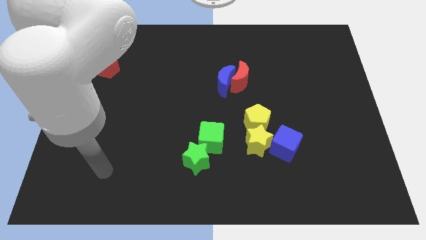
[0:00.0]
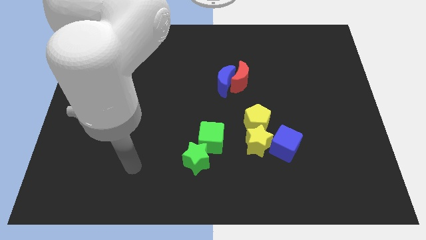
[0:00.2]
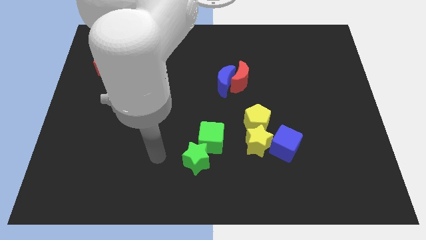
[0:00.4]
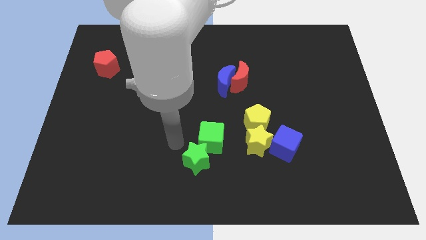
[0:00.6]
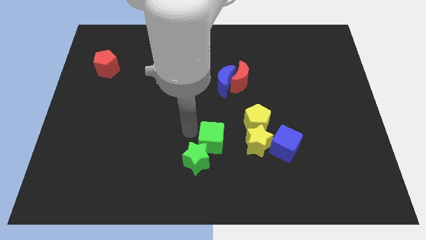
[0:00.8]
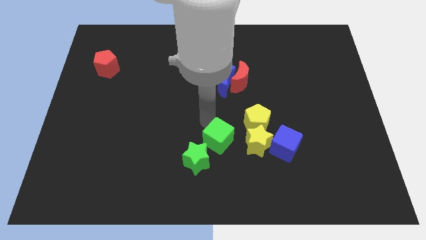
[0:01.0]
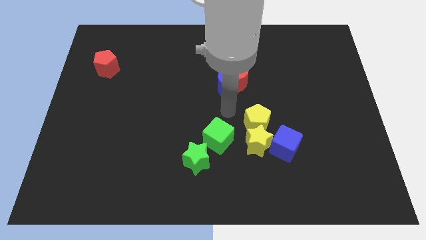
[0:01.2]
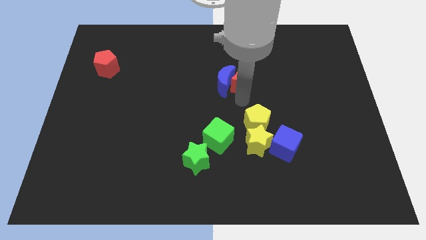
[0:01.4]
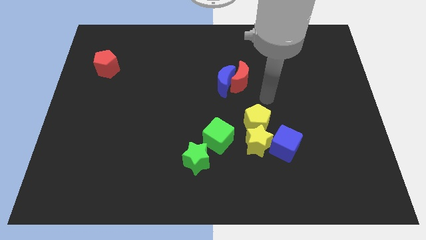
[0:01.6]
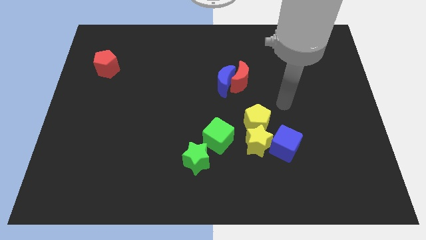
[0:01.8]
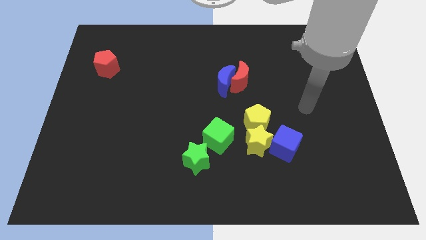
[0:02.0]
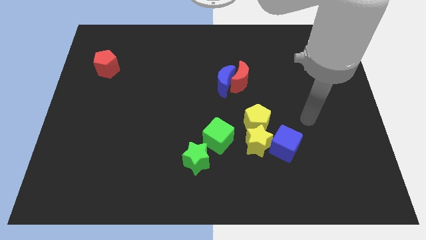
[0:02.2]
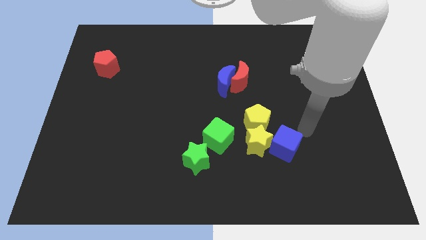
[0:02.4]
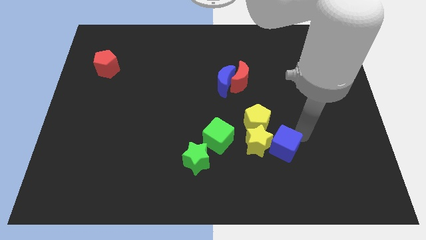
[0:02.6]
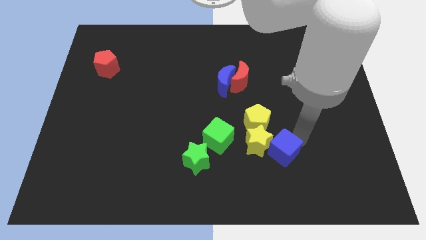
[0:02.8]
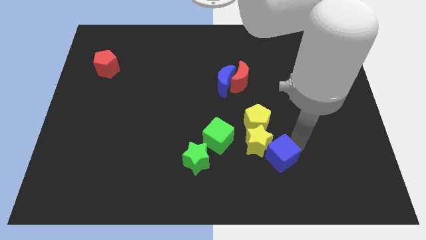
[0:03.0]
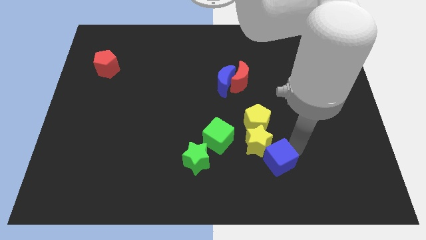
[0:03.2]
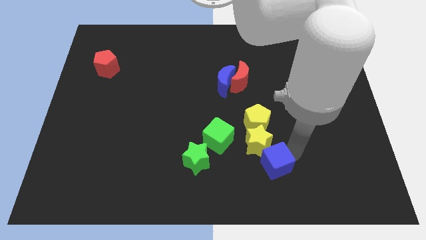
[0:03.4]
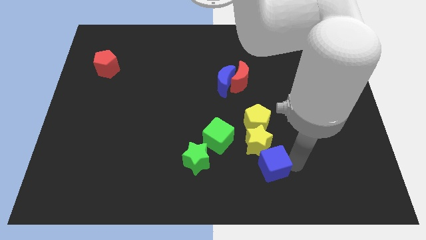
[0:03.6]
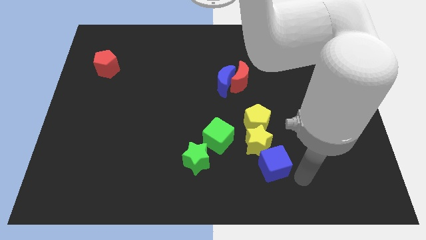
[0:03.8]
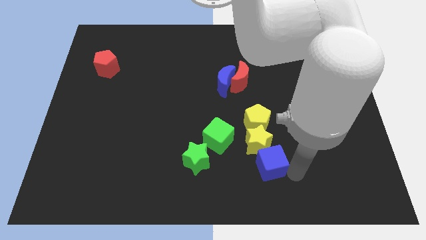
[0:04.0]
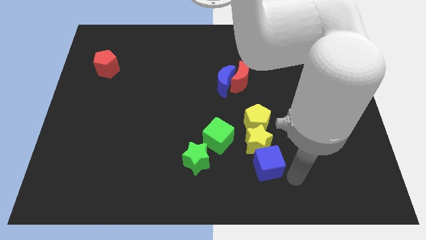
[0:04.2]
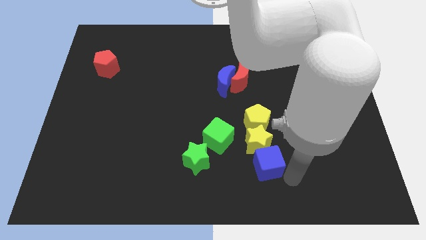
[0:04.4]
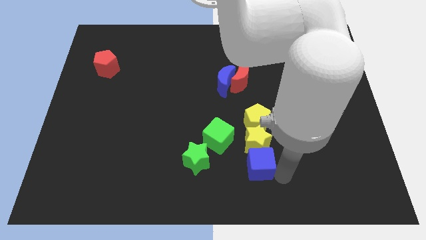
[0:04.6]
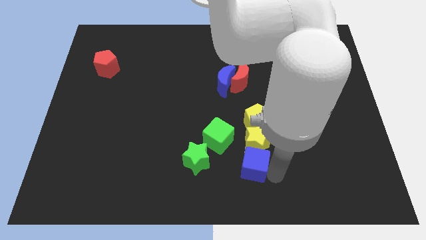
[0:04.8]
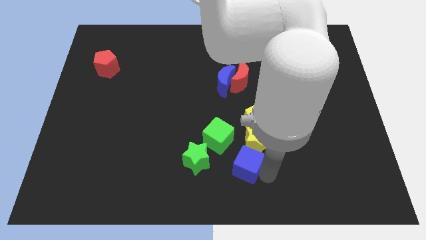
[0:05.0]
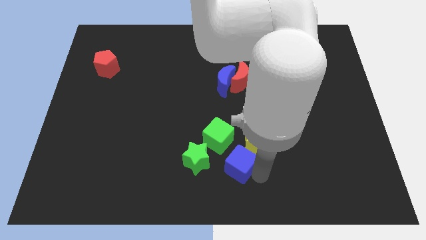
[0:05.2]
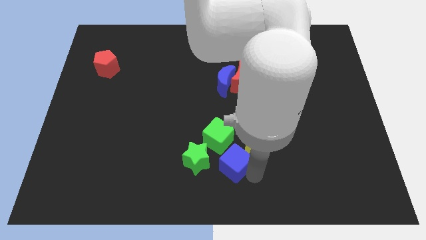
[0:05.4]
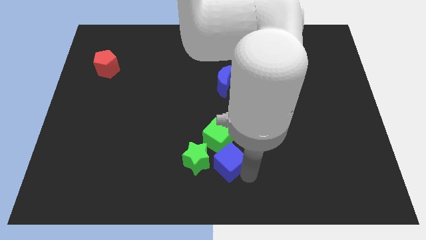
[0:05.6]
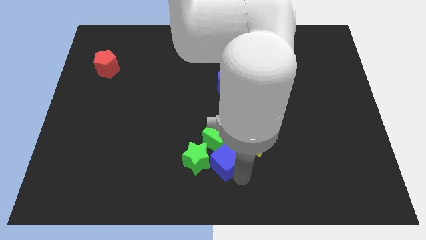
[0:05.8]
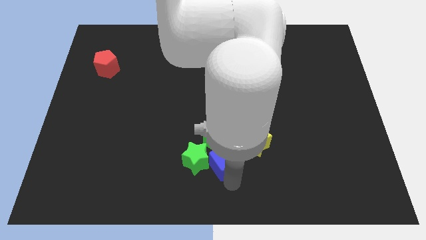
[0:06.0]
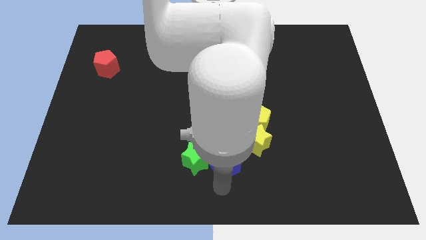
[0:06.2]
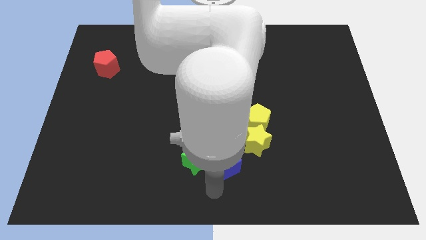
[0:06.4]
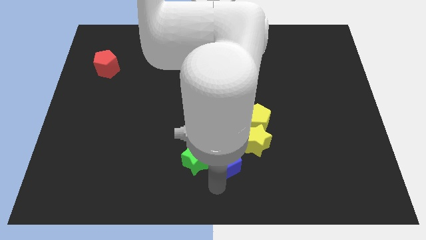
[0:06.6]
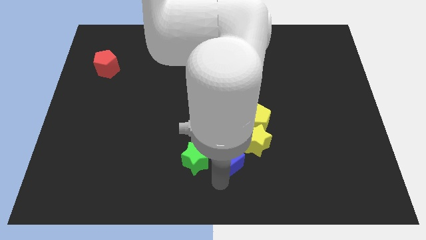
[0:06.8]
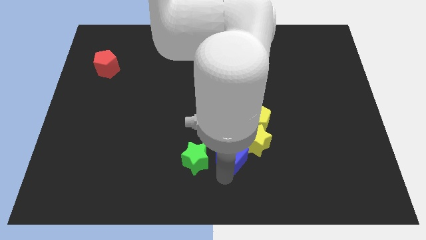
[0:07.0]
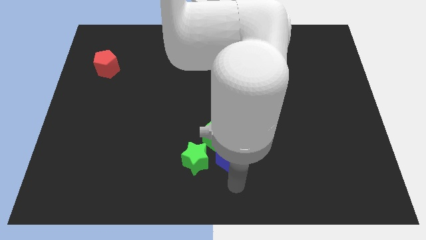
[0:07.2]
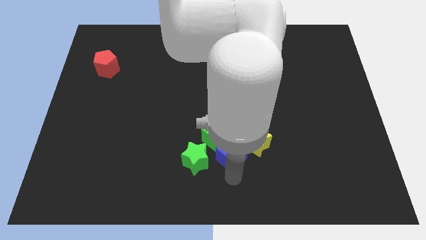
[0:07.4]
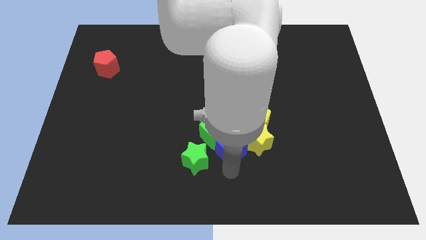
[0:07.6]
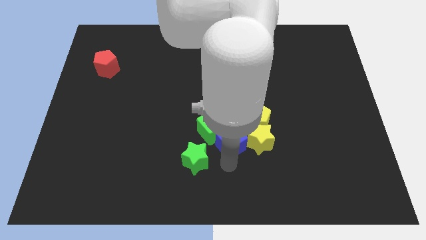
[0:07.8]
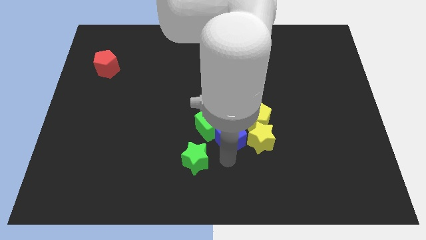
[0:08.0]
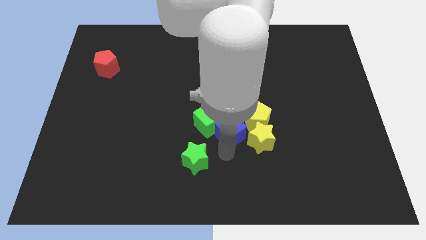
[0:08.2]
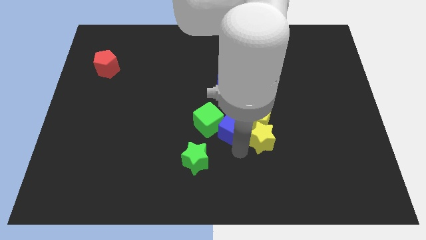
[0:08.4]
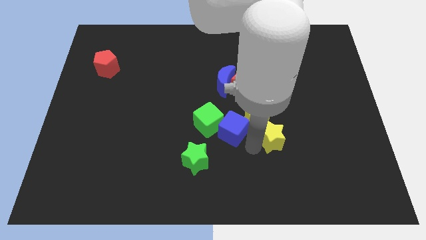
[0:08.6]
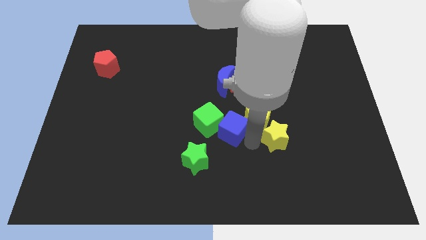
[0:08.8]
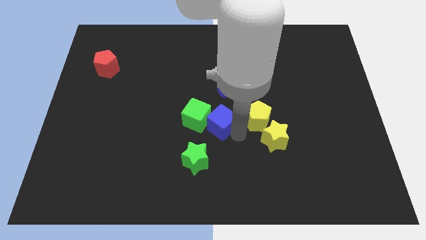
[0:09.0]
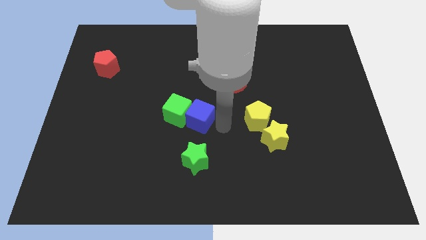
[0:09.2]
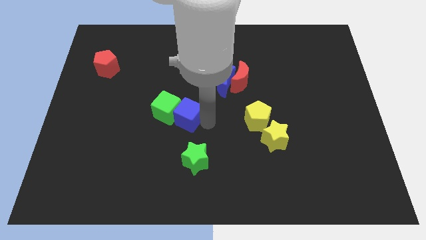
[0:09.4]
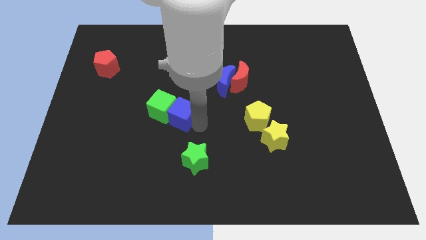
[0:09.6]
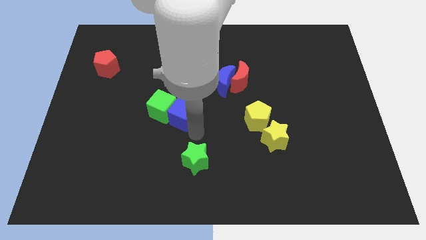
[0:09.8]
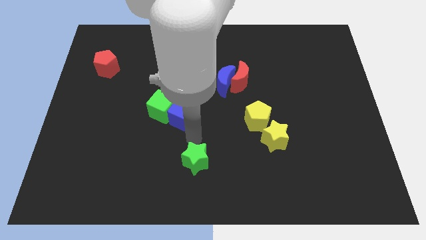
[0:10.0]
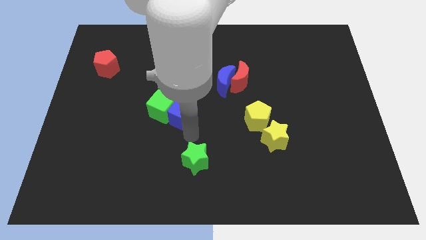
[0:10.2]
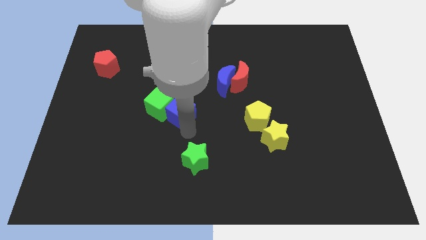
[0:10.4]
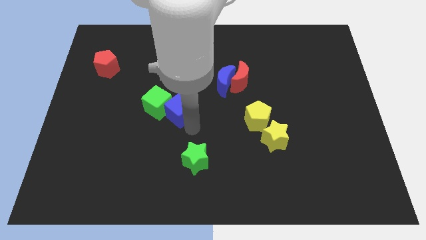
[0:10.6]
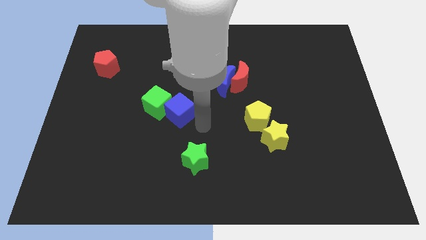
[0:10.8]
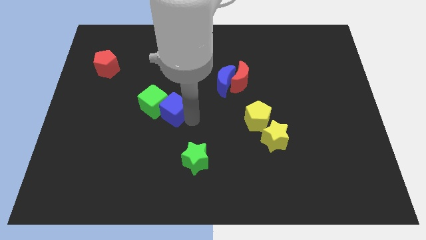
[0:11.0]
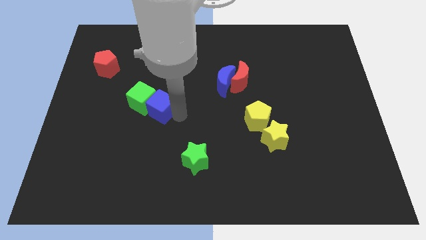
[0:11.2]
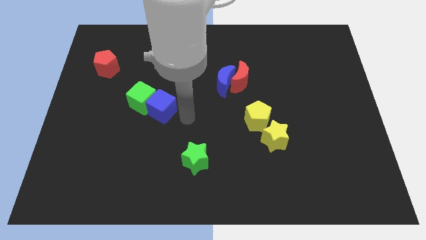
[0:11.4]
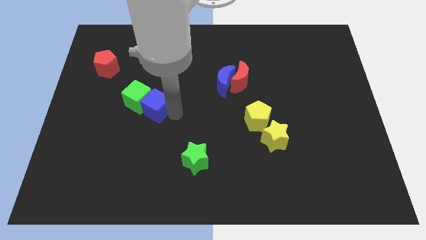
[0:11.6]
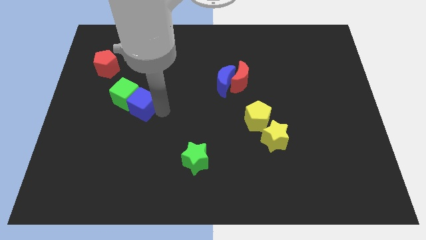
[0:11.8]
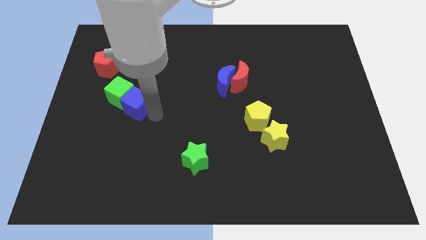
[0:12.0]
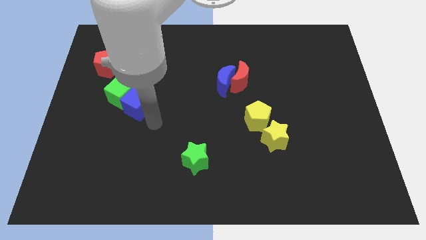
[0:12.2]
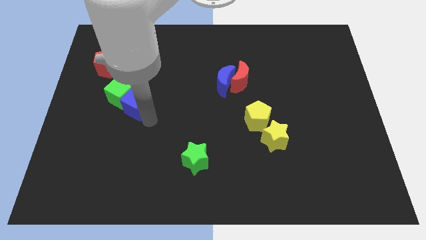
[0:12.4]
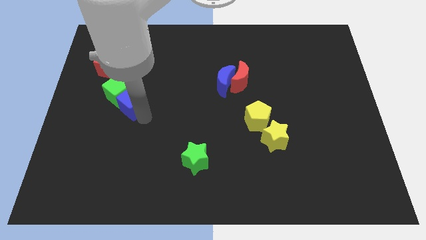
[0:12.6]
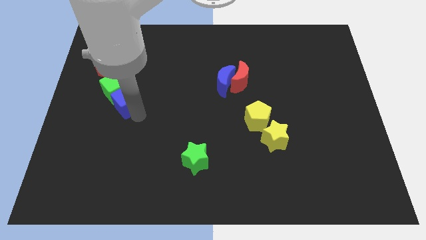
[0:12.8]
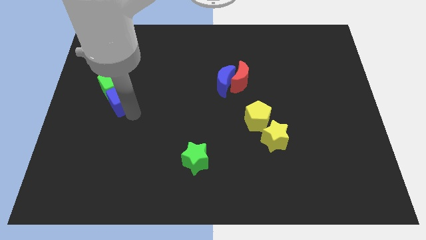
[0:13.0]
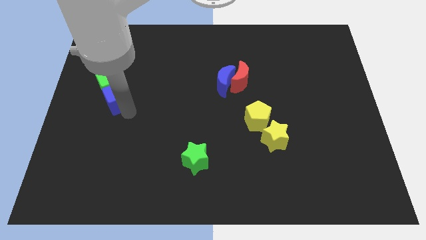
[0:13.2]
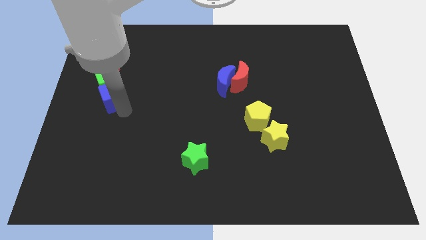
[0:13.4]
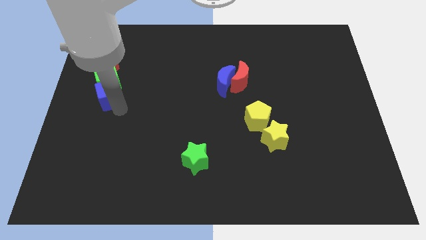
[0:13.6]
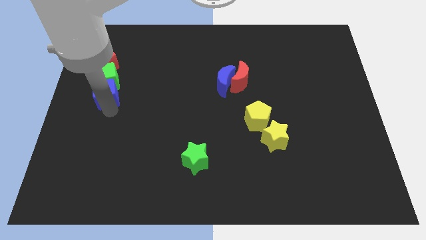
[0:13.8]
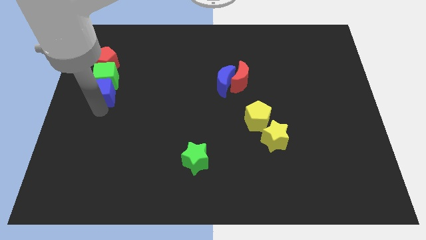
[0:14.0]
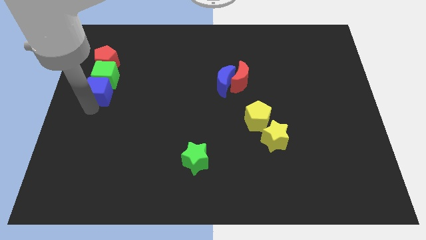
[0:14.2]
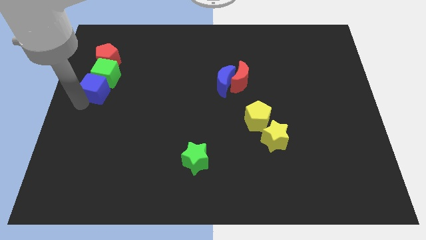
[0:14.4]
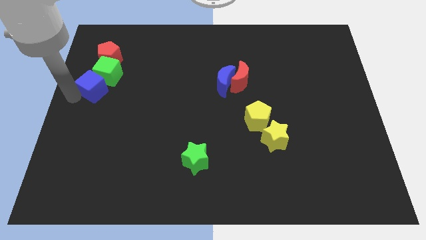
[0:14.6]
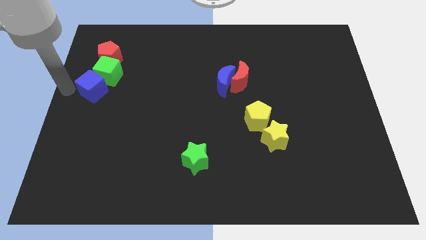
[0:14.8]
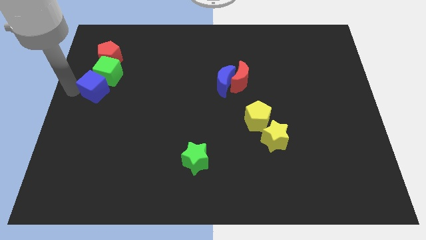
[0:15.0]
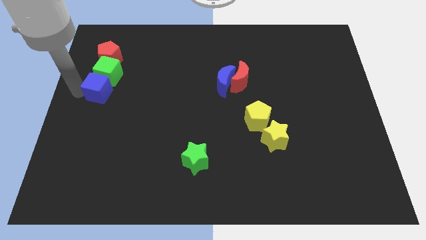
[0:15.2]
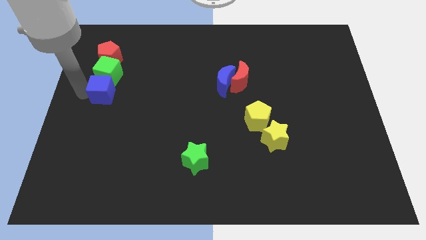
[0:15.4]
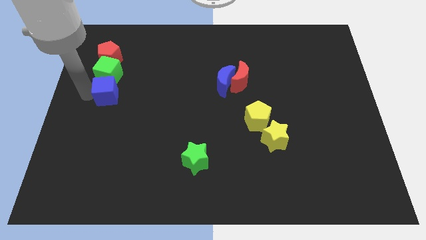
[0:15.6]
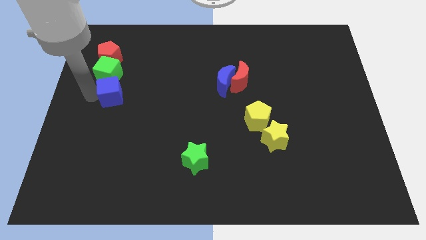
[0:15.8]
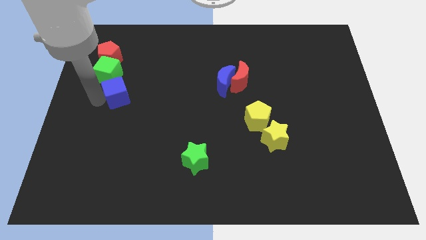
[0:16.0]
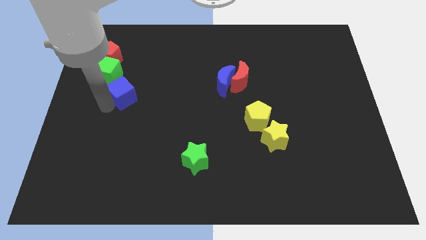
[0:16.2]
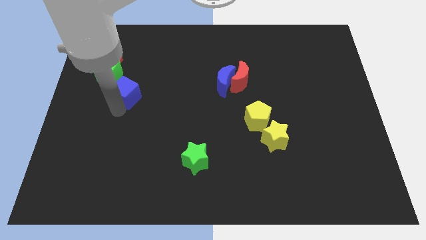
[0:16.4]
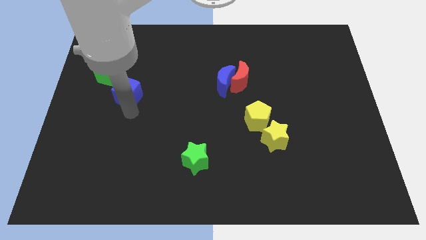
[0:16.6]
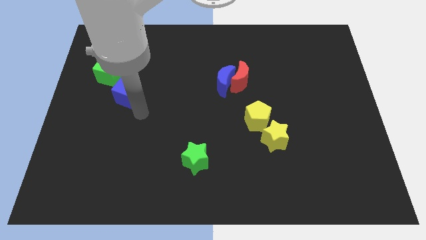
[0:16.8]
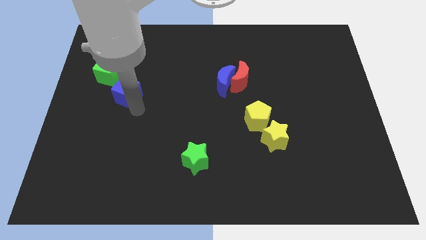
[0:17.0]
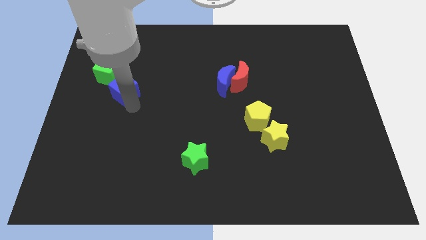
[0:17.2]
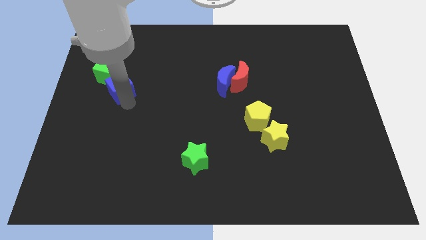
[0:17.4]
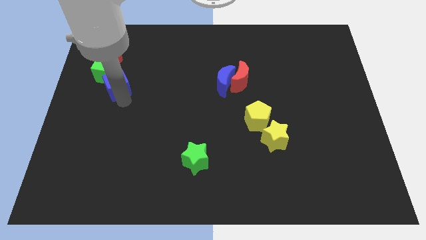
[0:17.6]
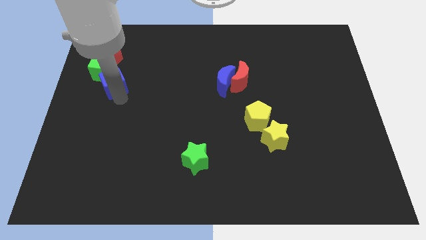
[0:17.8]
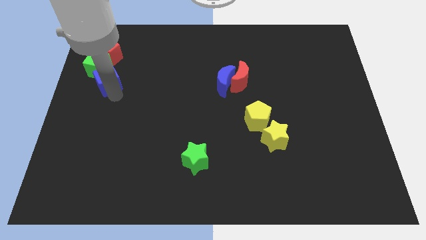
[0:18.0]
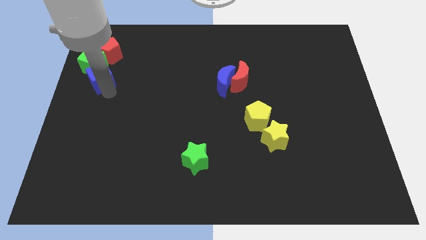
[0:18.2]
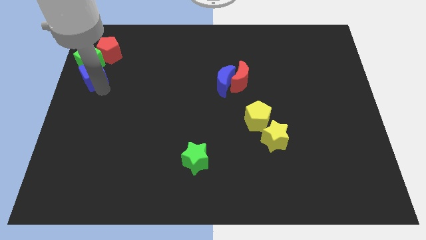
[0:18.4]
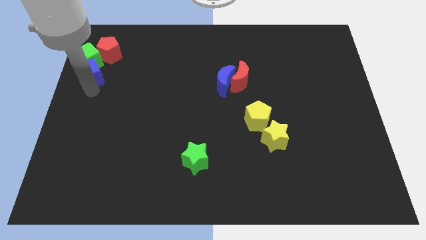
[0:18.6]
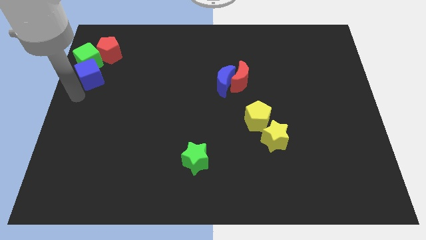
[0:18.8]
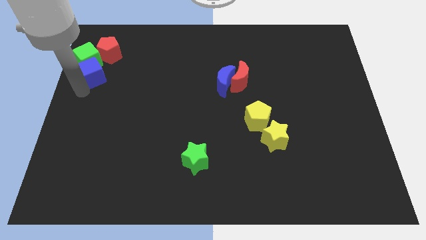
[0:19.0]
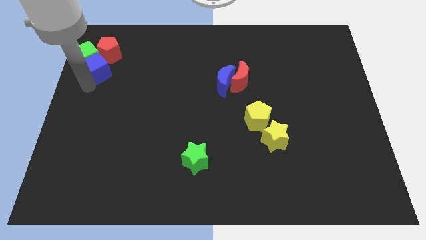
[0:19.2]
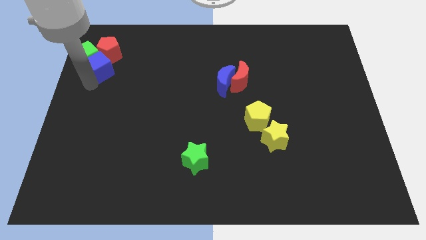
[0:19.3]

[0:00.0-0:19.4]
push the blue cube next to the red pentagon
